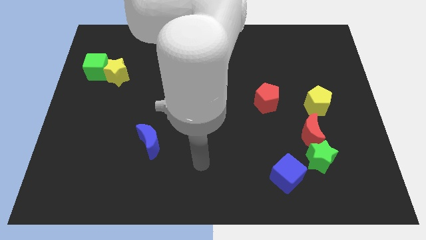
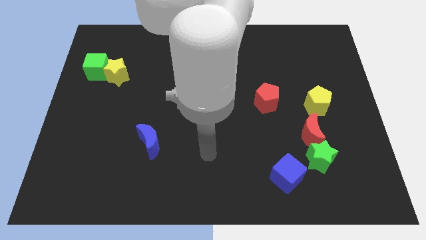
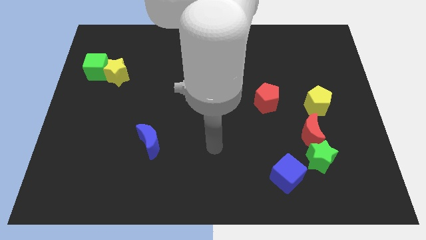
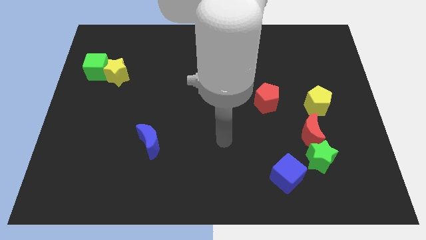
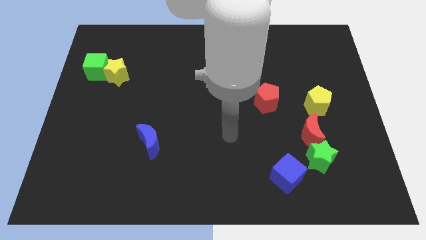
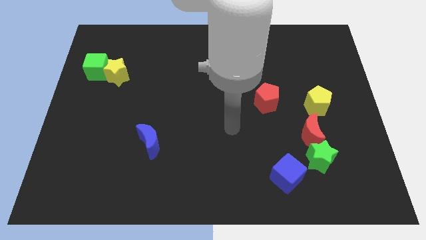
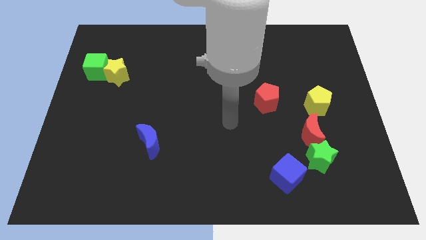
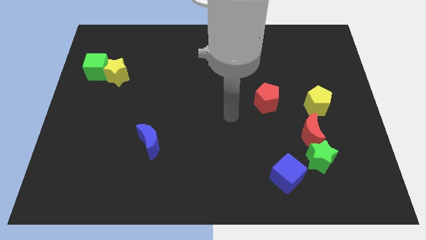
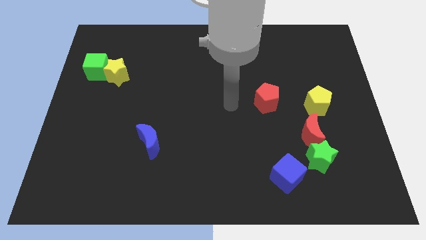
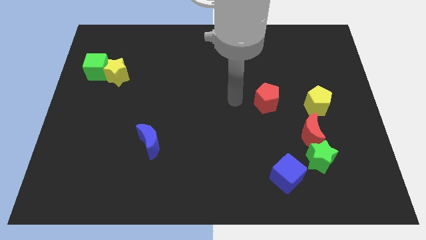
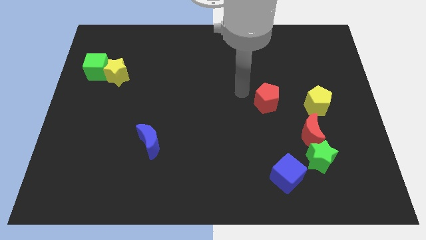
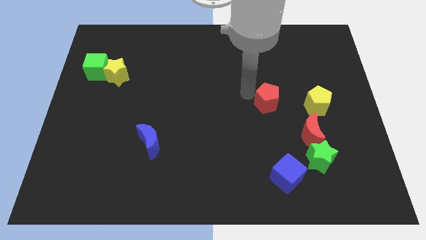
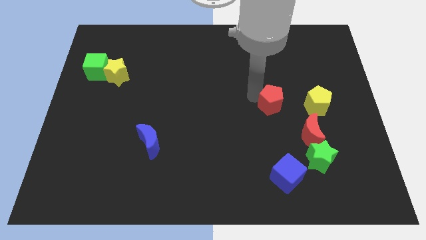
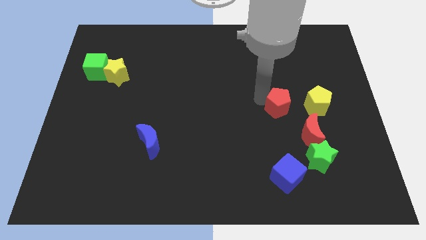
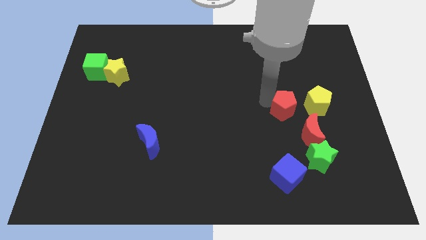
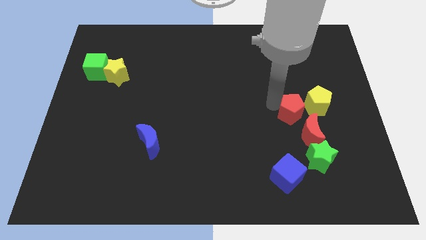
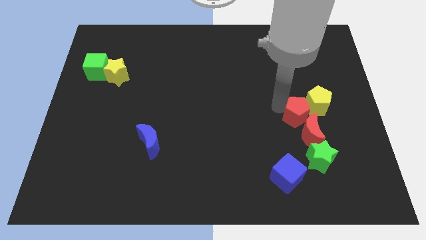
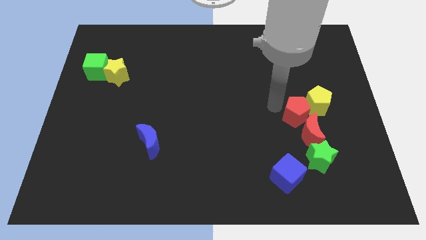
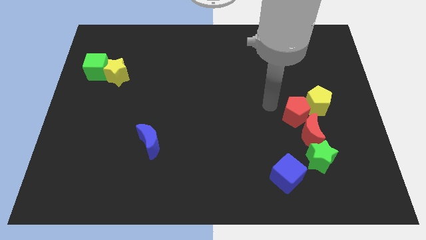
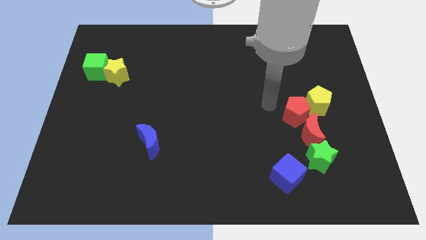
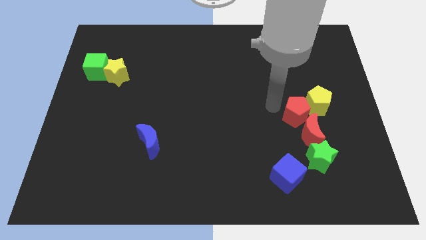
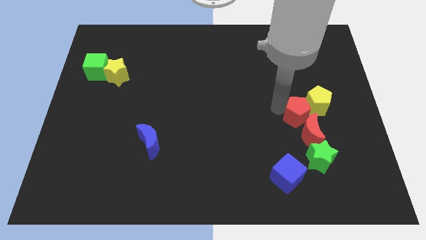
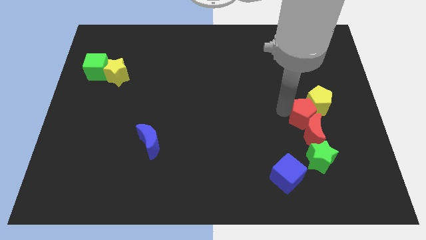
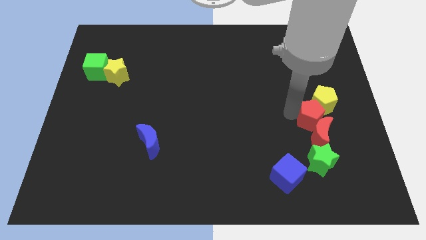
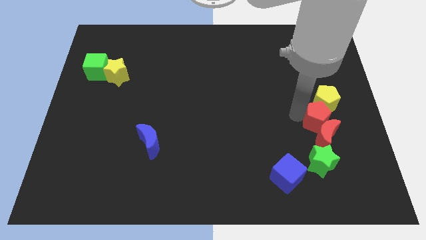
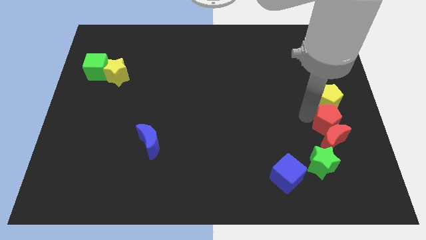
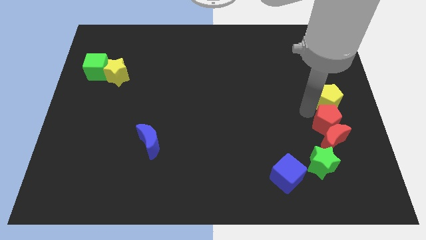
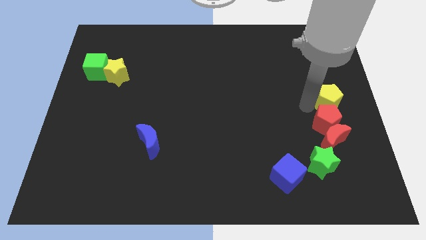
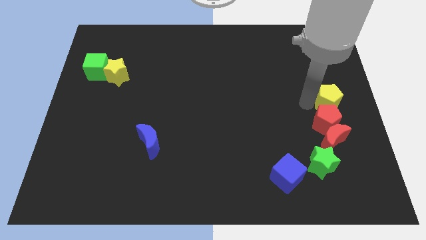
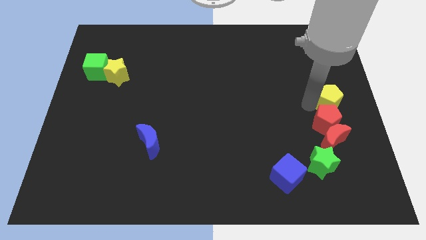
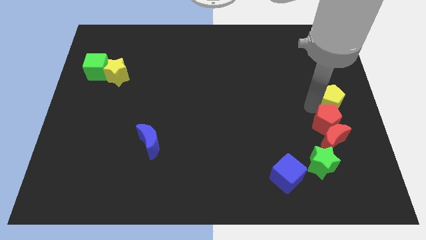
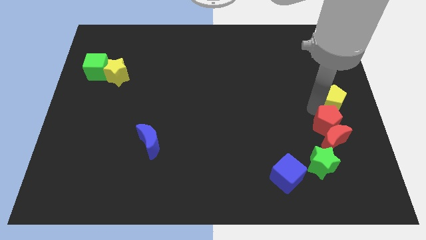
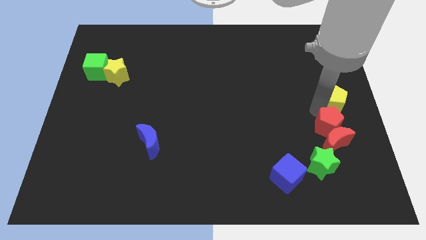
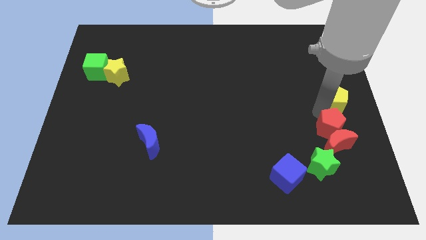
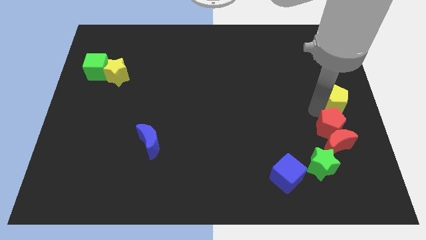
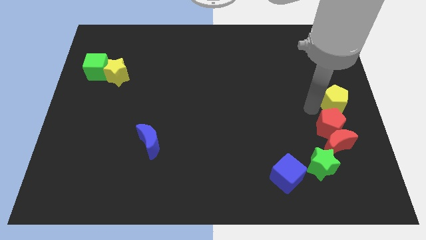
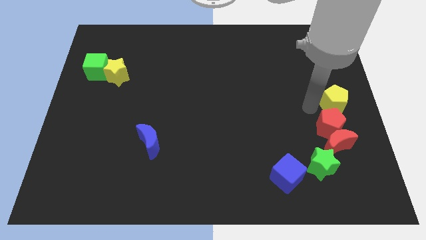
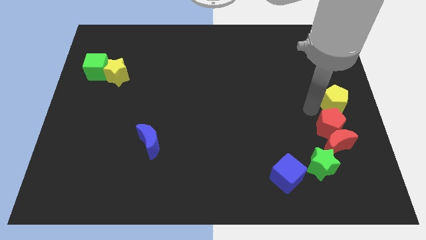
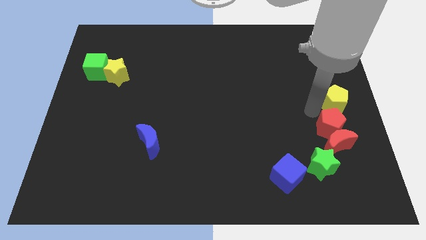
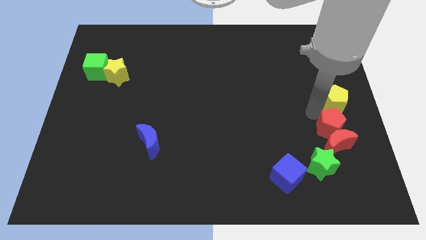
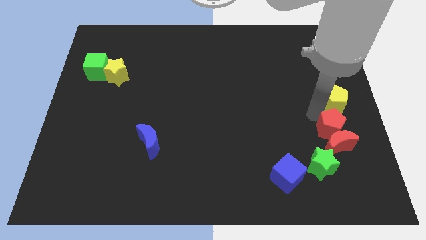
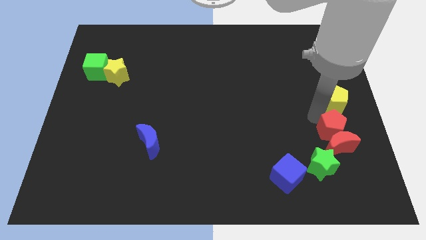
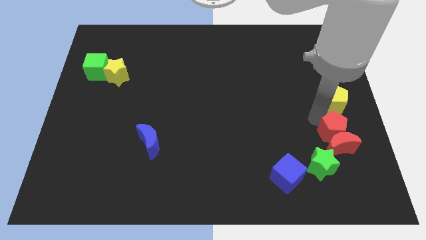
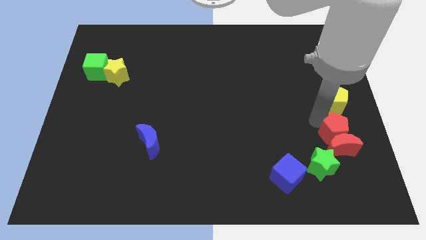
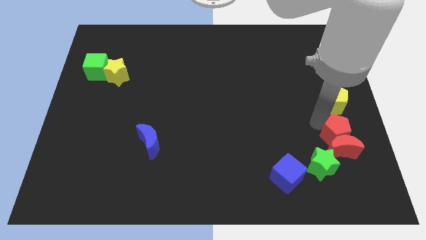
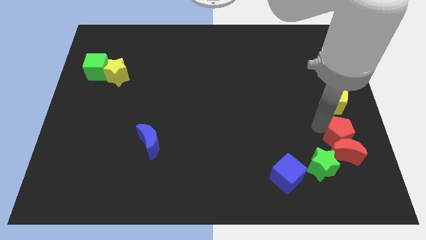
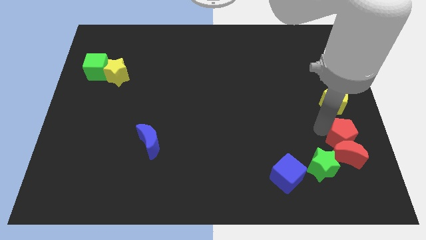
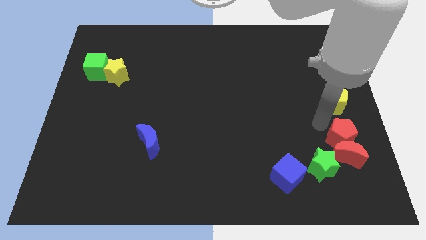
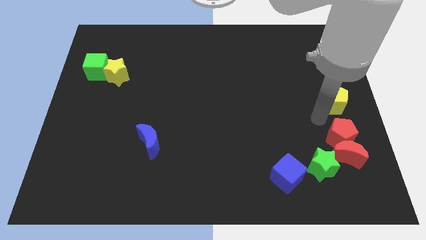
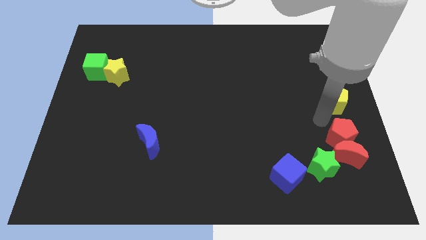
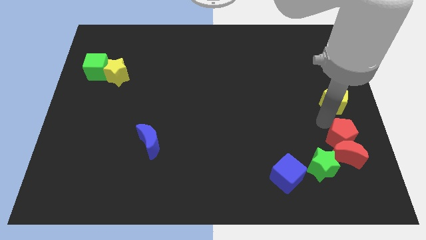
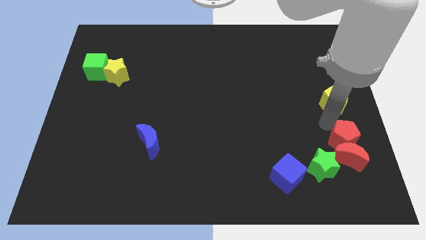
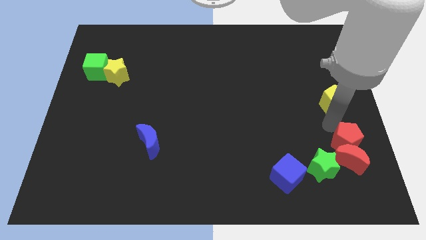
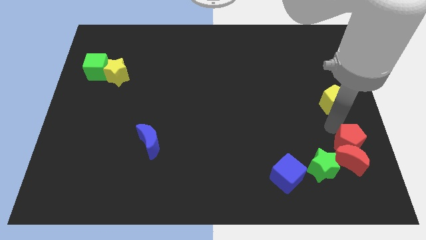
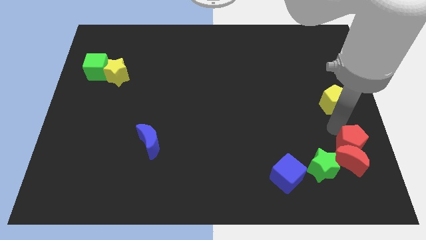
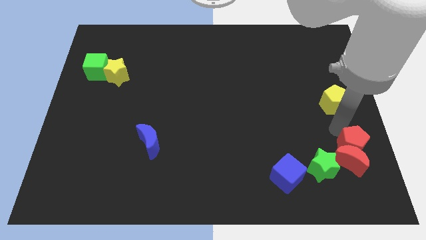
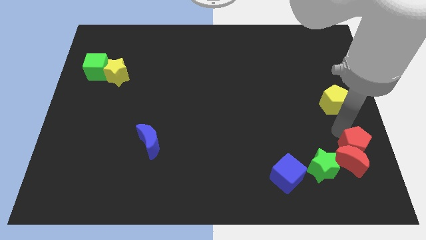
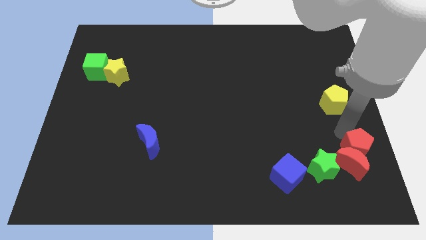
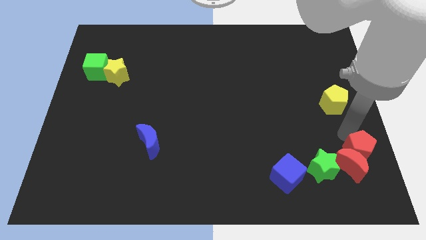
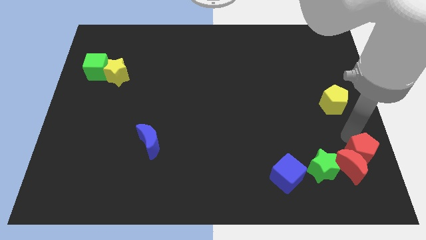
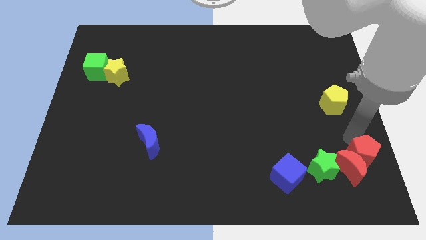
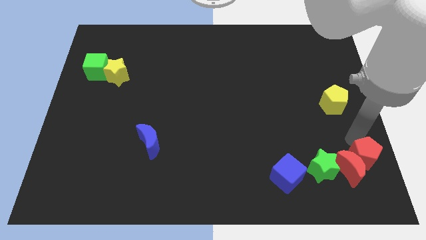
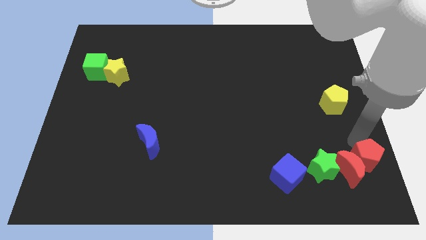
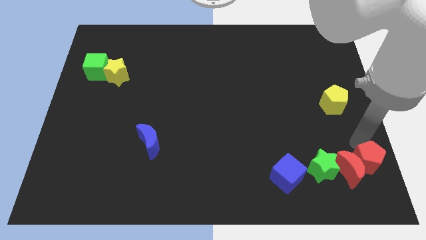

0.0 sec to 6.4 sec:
slide the red pentagon to the bottom right of the board
